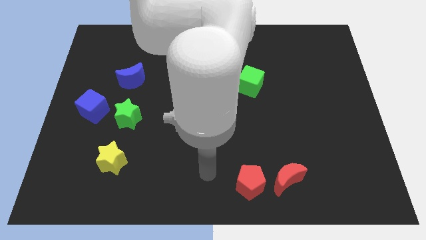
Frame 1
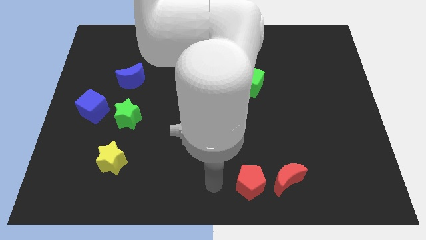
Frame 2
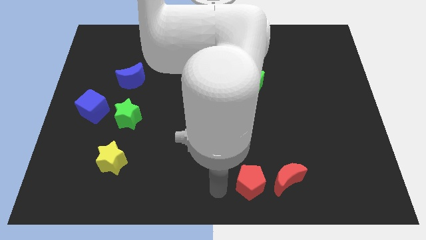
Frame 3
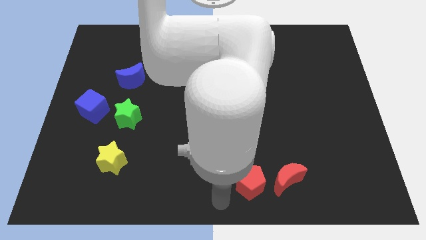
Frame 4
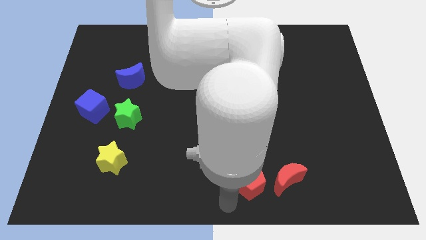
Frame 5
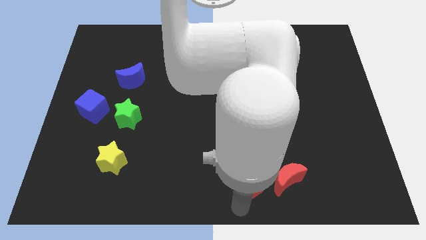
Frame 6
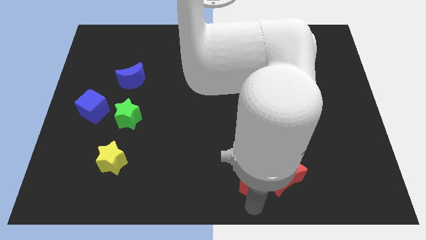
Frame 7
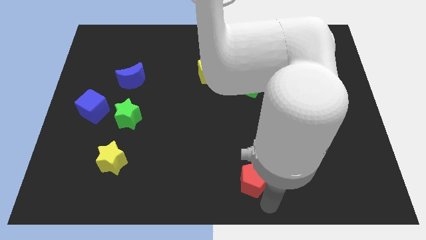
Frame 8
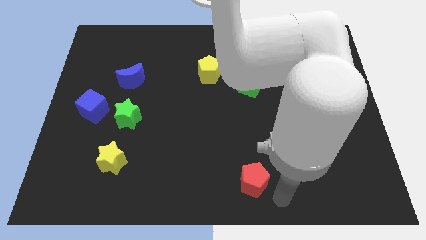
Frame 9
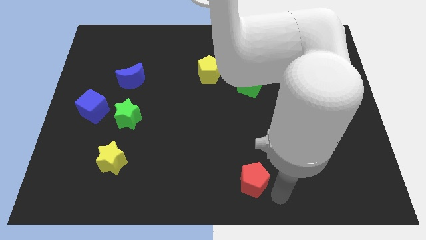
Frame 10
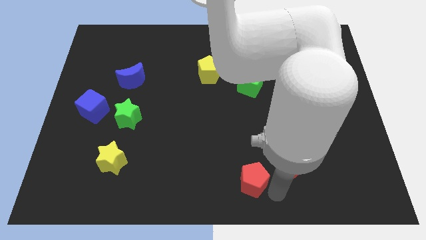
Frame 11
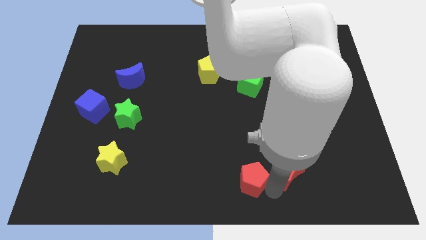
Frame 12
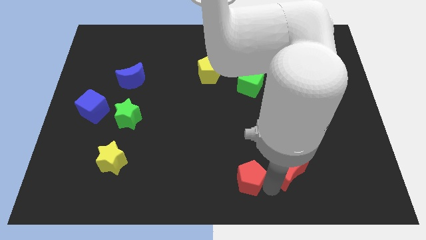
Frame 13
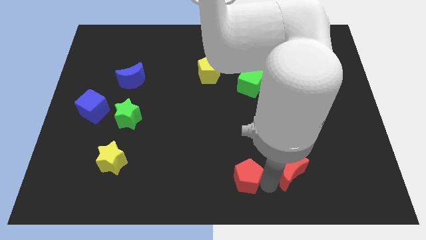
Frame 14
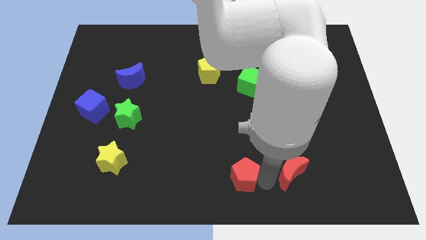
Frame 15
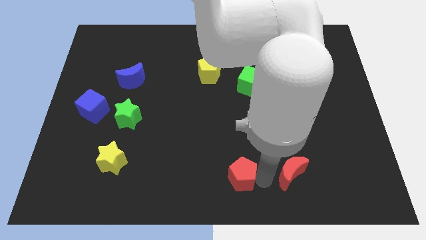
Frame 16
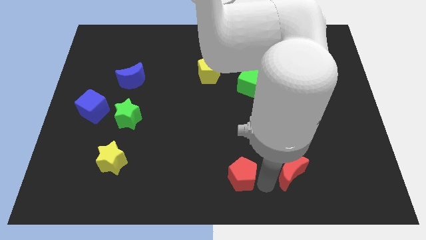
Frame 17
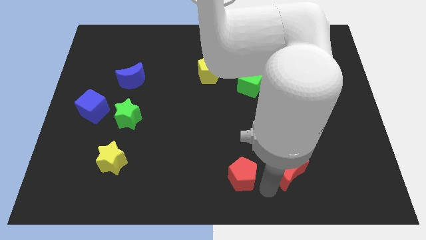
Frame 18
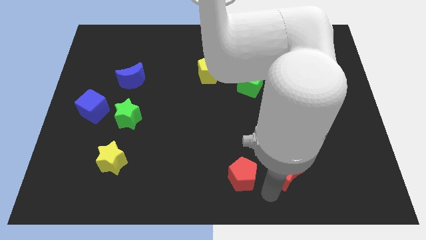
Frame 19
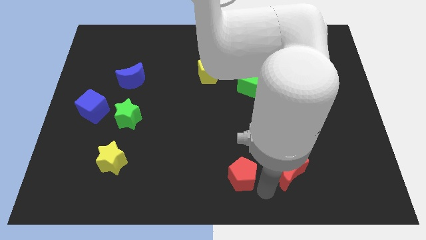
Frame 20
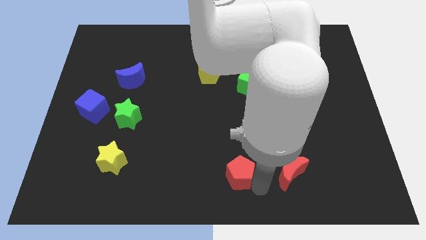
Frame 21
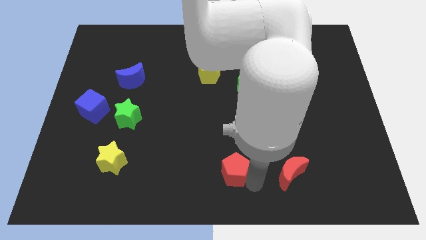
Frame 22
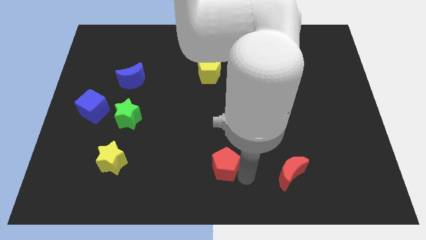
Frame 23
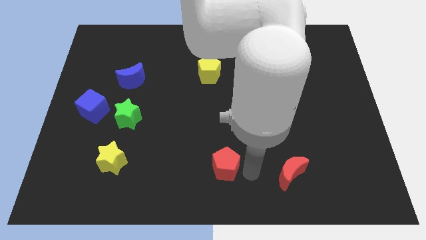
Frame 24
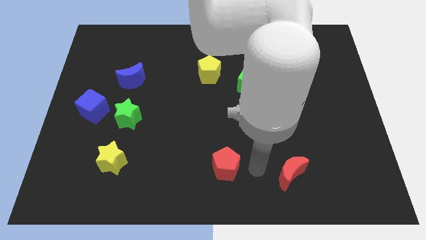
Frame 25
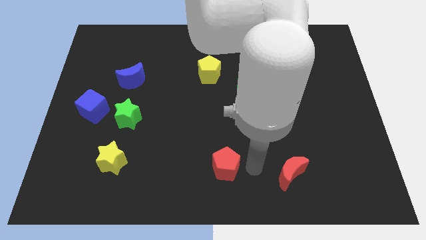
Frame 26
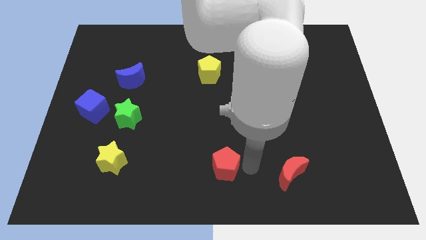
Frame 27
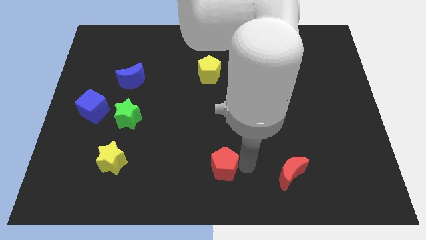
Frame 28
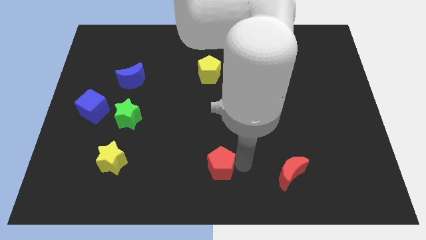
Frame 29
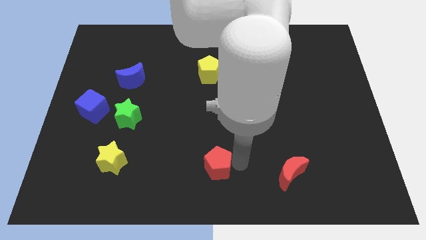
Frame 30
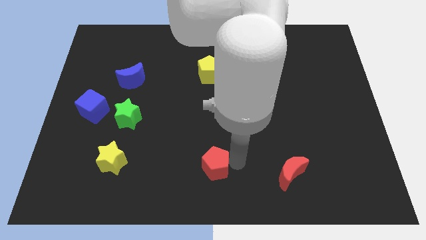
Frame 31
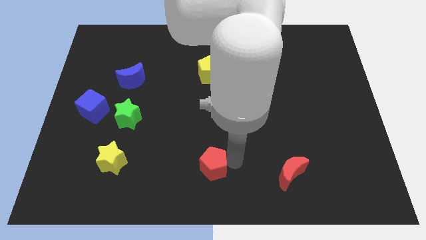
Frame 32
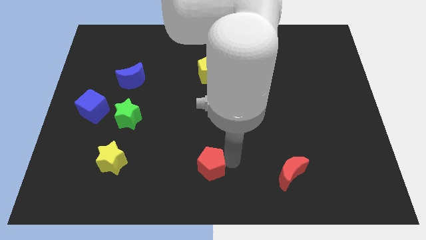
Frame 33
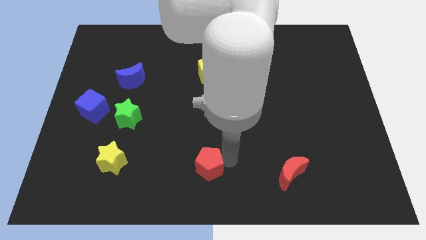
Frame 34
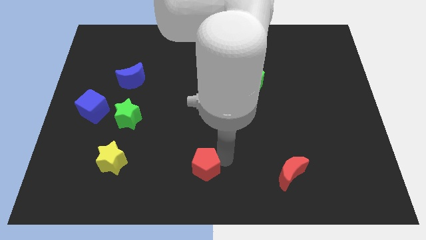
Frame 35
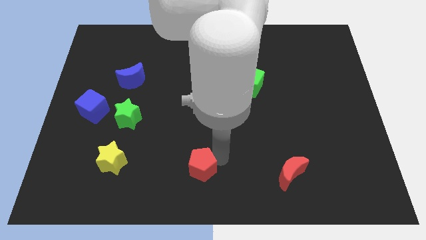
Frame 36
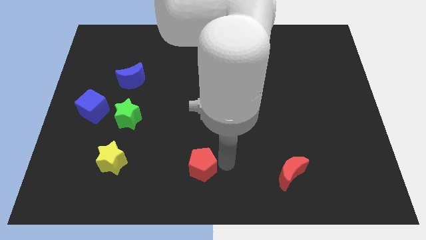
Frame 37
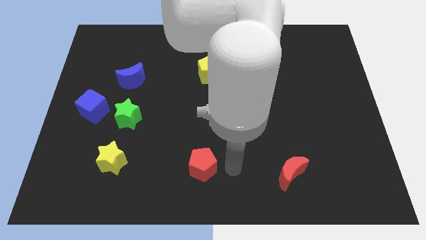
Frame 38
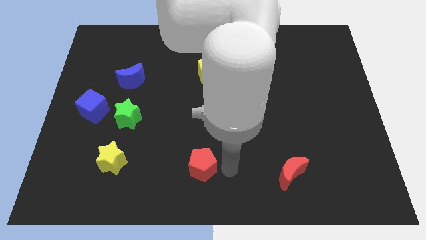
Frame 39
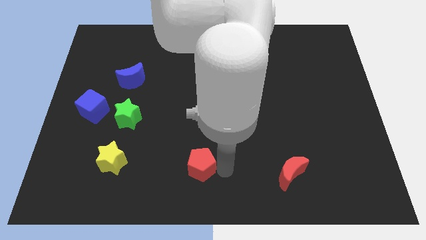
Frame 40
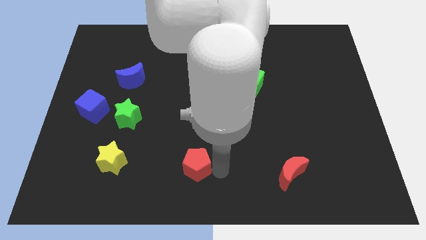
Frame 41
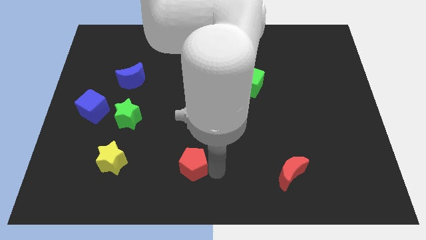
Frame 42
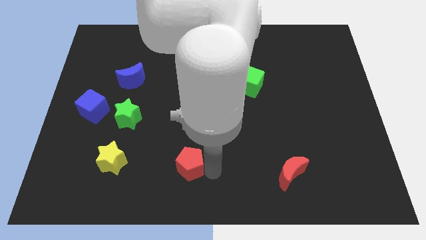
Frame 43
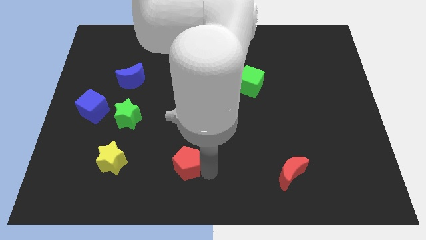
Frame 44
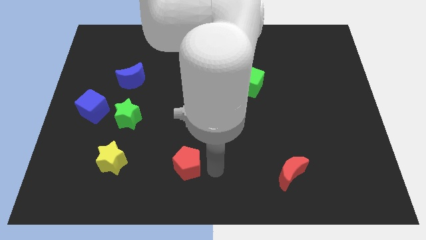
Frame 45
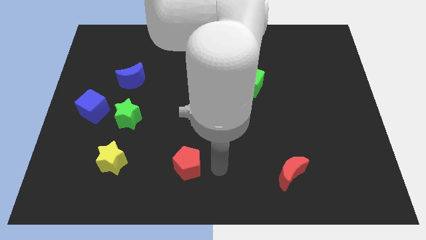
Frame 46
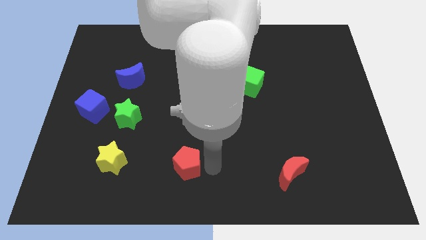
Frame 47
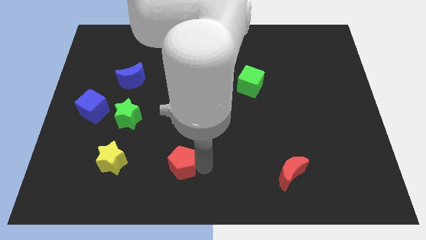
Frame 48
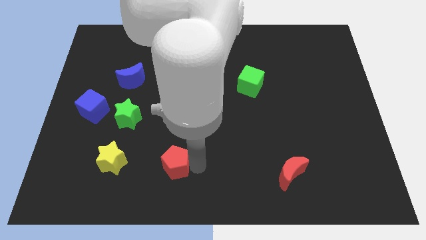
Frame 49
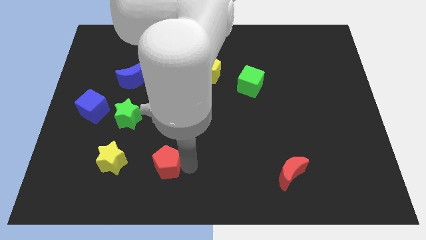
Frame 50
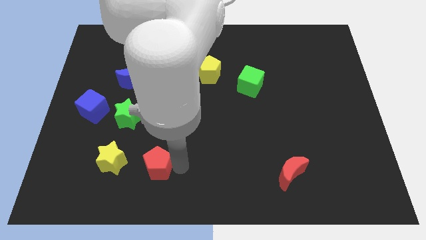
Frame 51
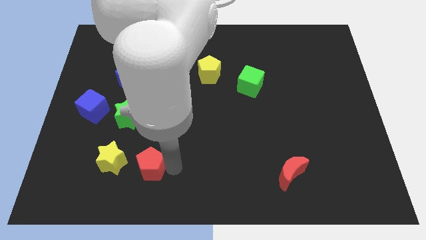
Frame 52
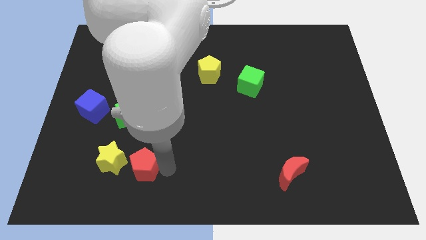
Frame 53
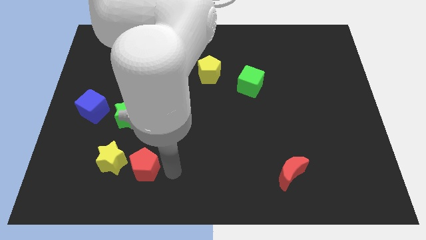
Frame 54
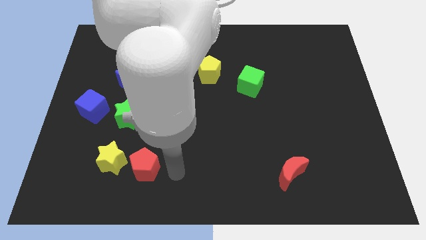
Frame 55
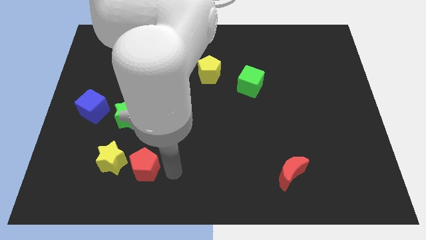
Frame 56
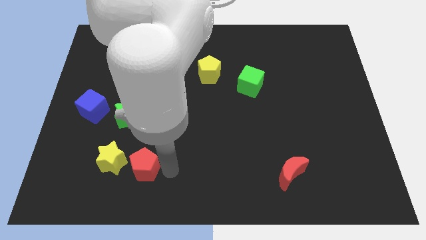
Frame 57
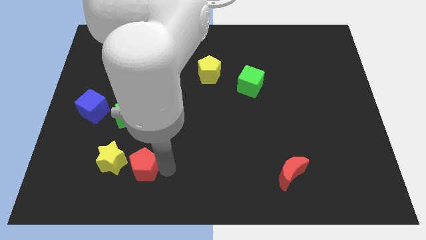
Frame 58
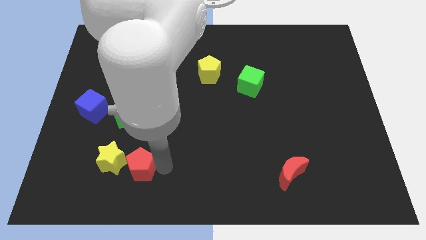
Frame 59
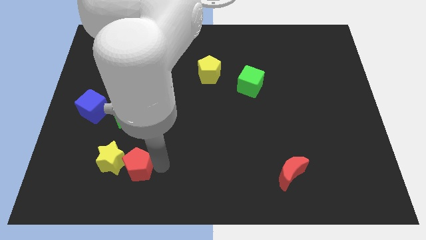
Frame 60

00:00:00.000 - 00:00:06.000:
put the red pentagon next to the yellow star

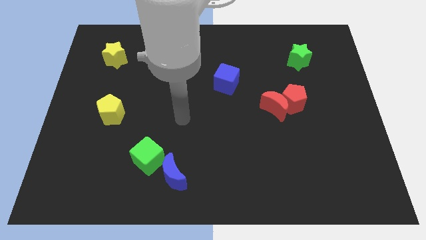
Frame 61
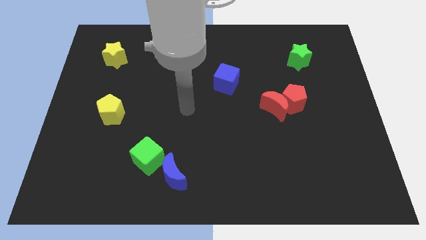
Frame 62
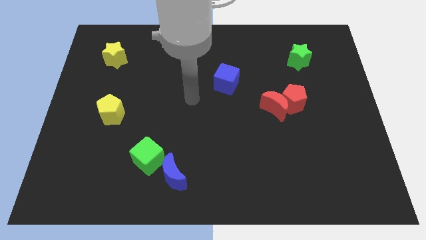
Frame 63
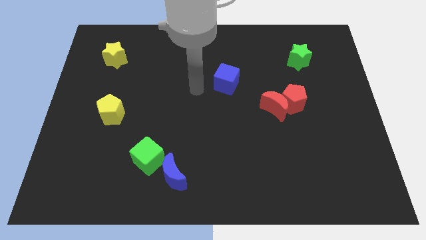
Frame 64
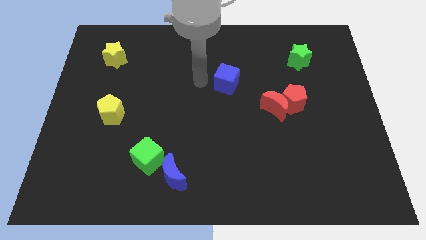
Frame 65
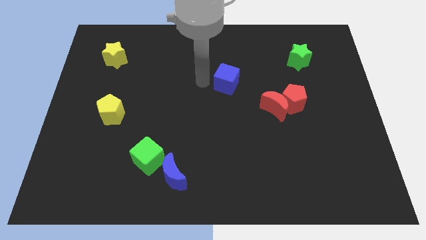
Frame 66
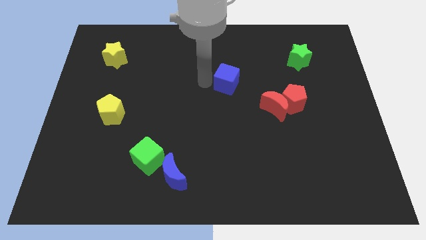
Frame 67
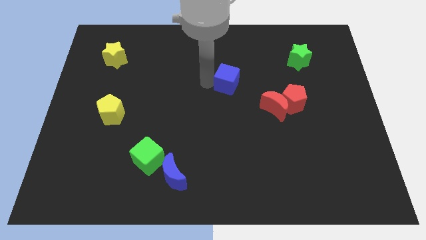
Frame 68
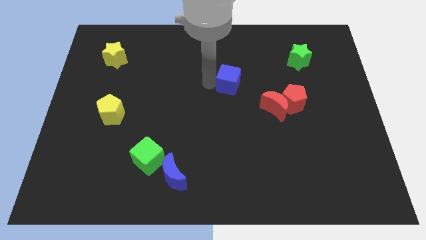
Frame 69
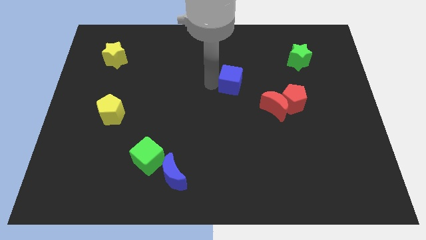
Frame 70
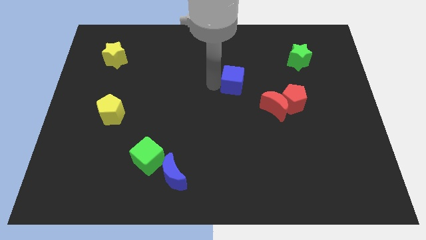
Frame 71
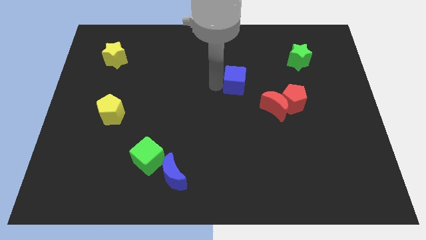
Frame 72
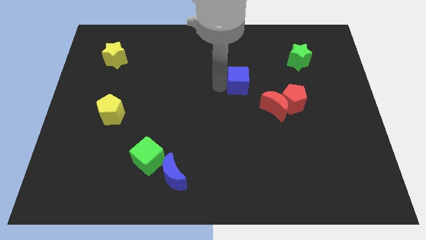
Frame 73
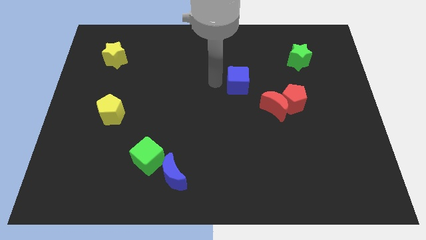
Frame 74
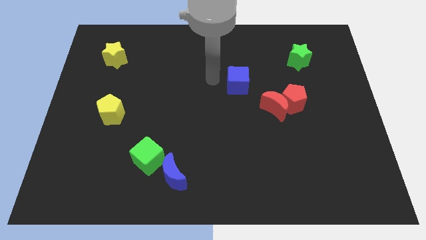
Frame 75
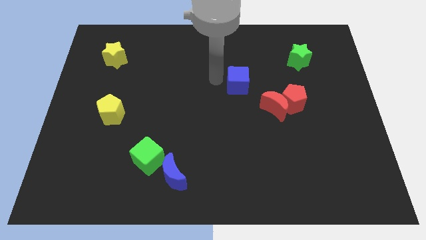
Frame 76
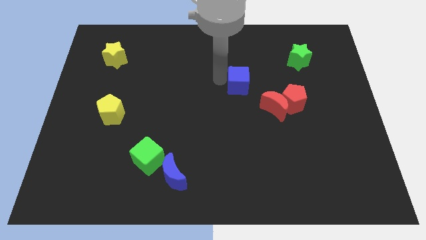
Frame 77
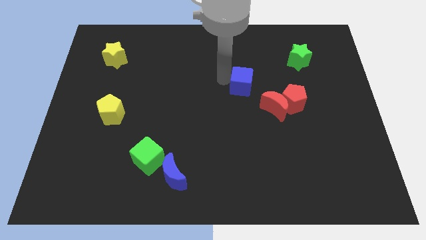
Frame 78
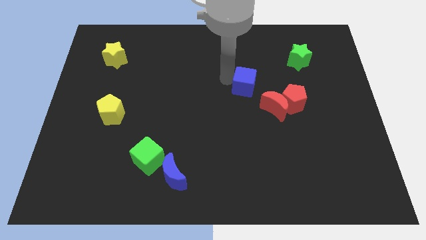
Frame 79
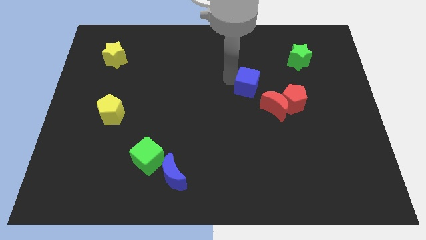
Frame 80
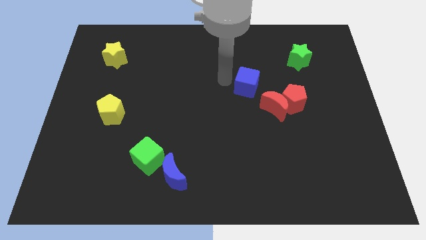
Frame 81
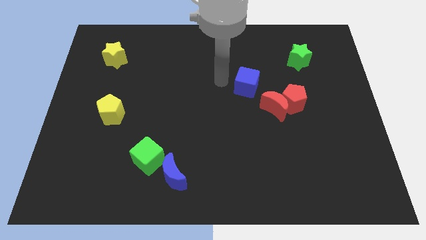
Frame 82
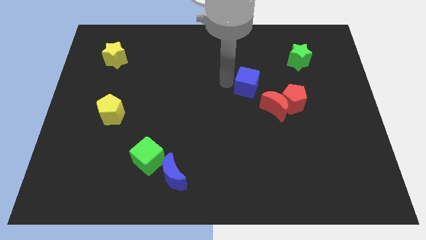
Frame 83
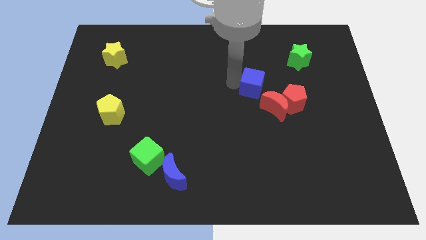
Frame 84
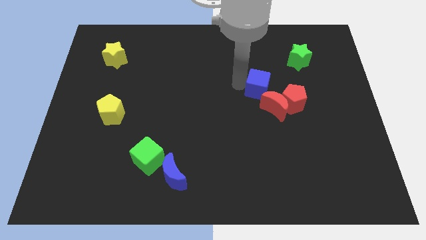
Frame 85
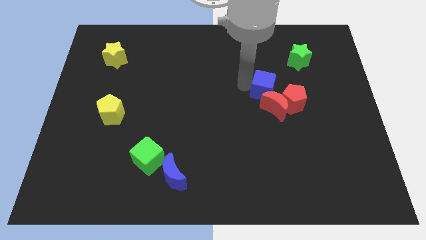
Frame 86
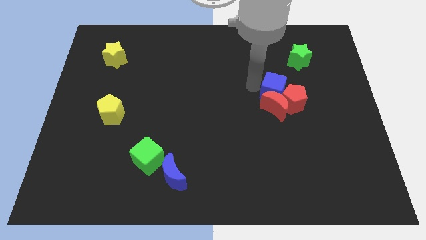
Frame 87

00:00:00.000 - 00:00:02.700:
put the blue cube towards the red pentagon
